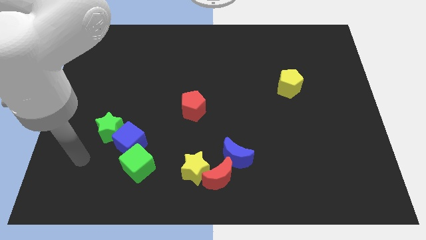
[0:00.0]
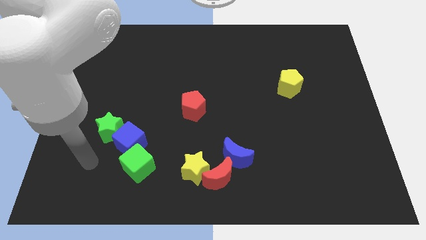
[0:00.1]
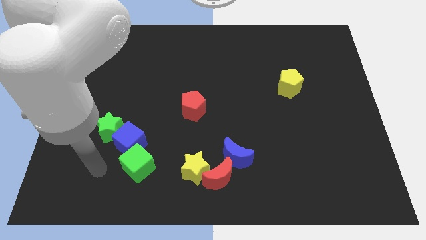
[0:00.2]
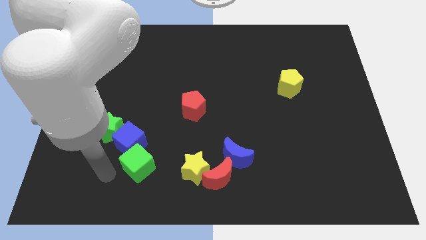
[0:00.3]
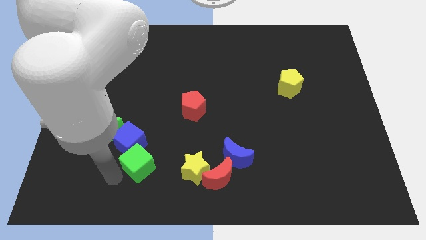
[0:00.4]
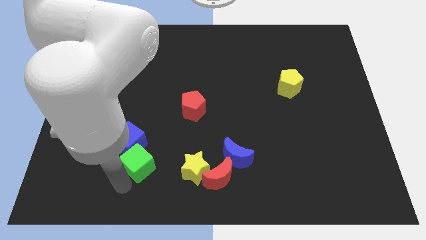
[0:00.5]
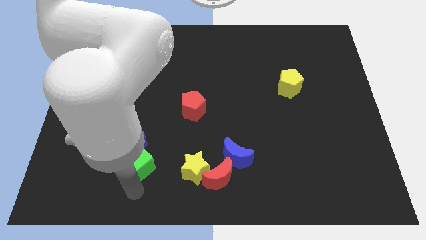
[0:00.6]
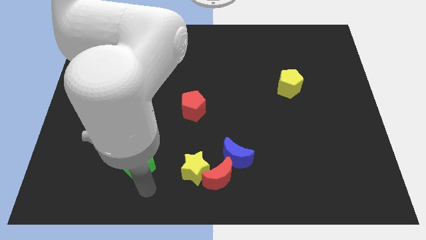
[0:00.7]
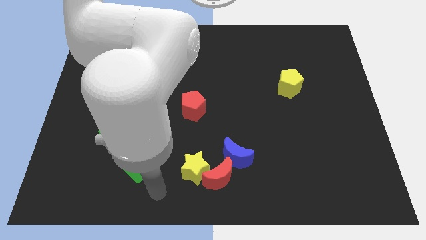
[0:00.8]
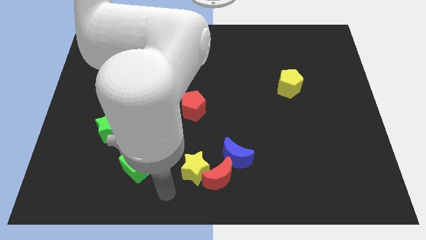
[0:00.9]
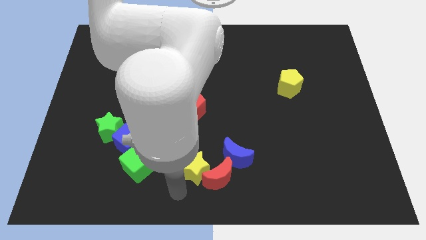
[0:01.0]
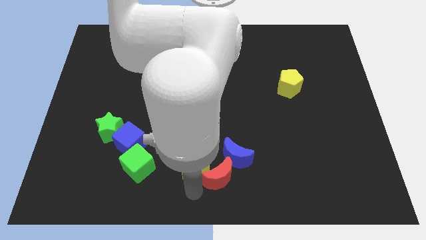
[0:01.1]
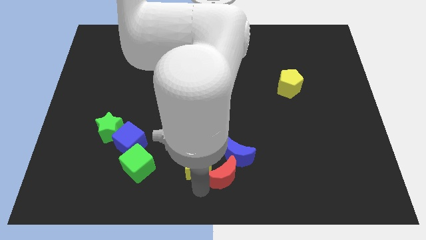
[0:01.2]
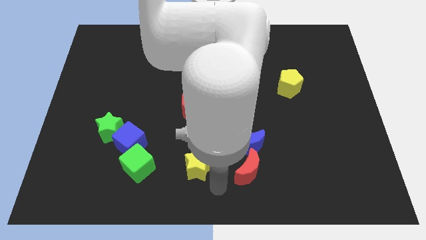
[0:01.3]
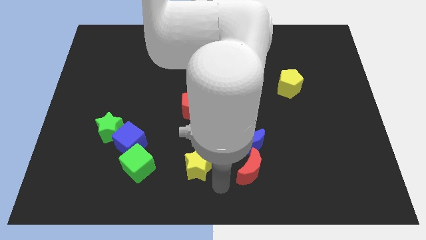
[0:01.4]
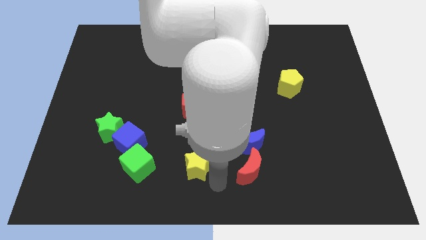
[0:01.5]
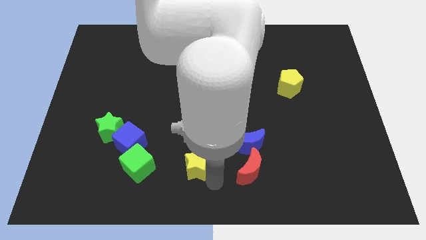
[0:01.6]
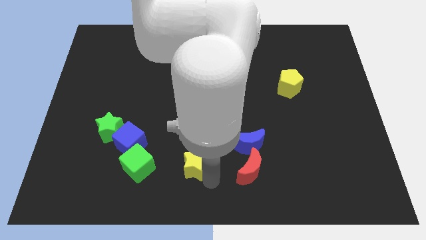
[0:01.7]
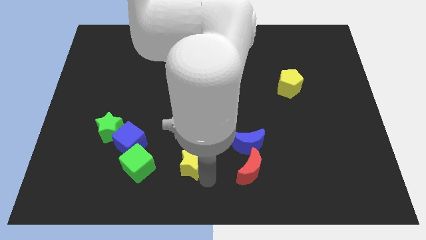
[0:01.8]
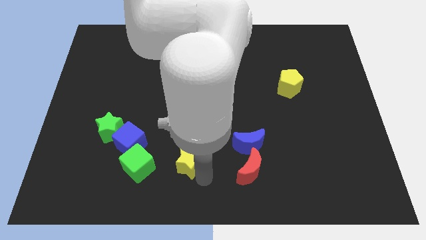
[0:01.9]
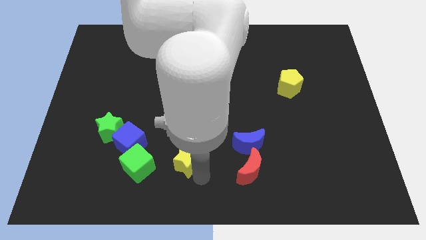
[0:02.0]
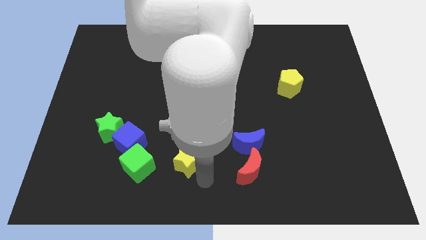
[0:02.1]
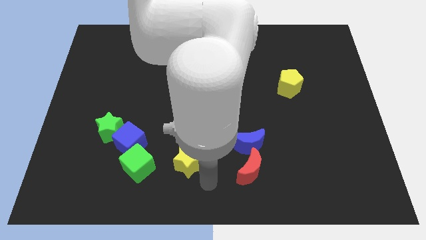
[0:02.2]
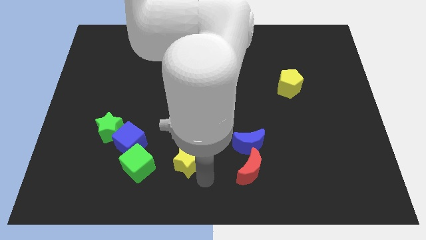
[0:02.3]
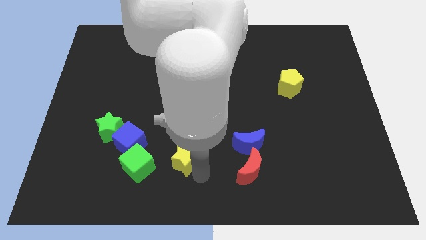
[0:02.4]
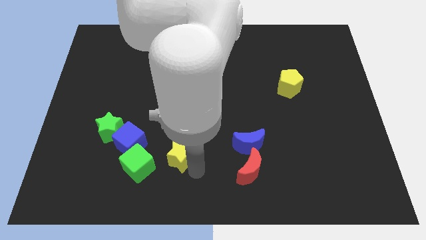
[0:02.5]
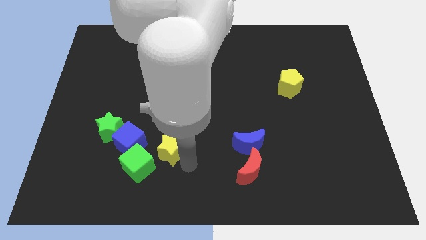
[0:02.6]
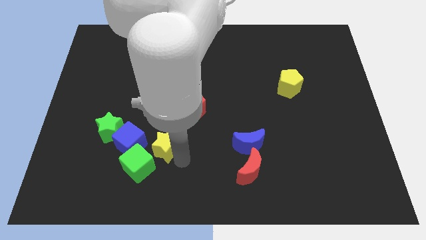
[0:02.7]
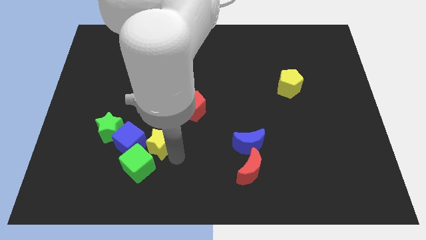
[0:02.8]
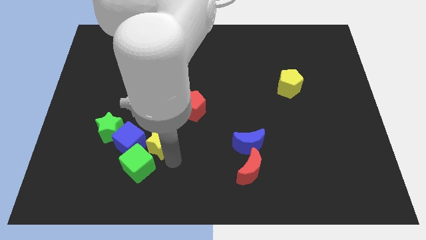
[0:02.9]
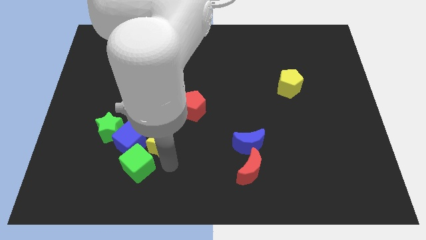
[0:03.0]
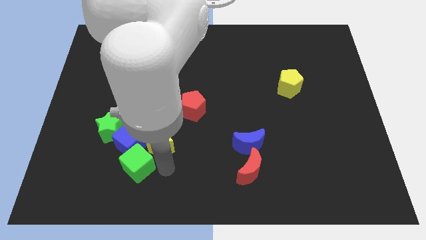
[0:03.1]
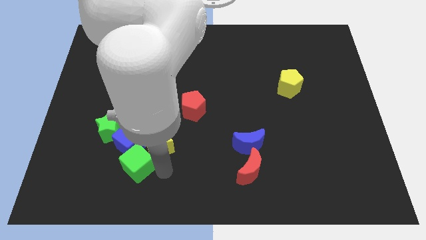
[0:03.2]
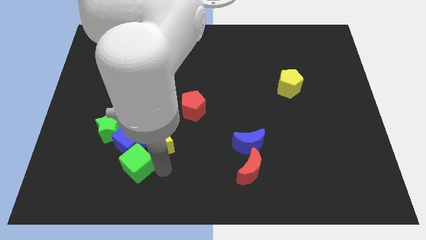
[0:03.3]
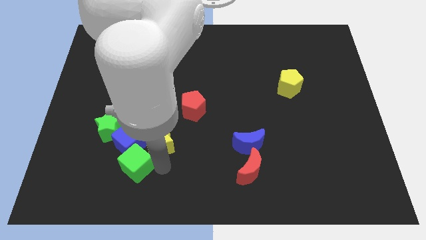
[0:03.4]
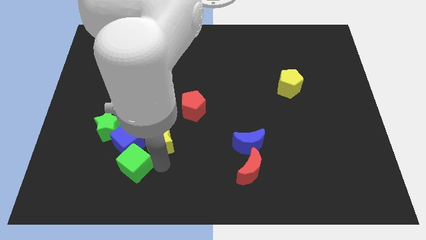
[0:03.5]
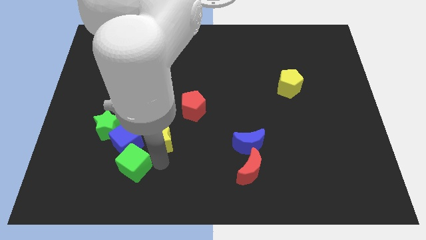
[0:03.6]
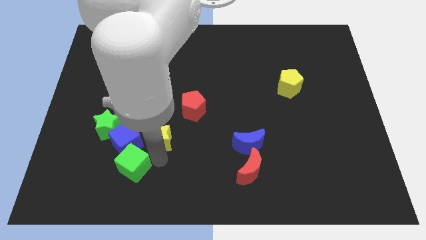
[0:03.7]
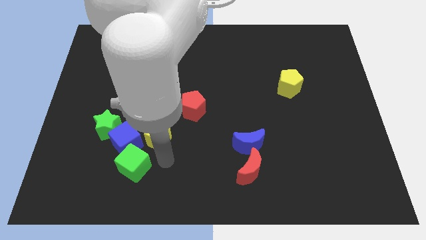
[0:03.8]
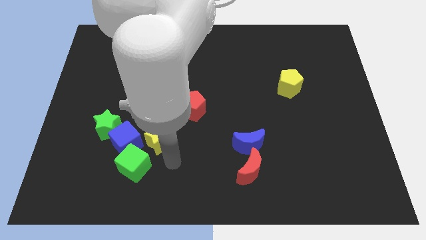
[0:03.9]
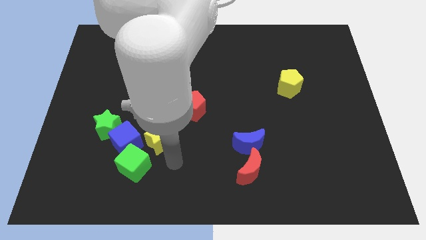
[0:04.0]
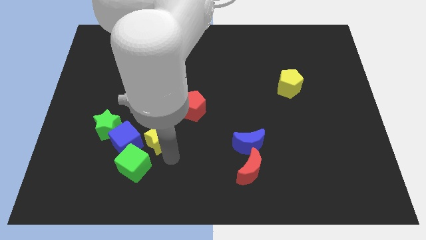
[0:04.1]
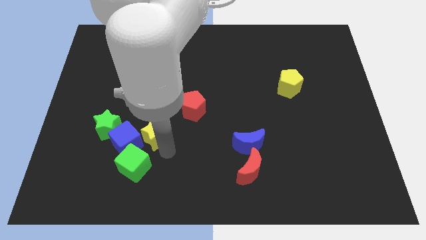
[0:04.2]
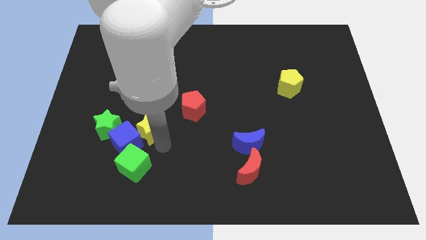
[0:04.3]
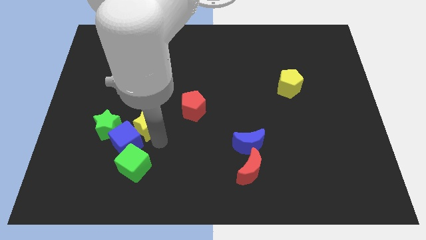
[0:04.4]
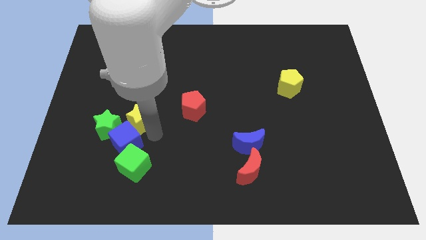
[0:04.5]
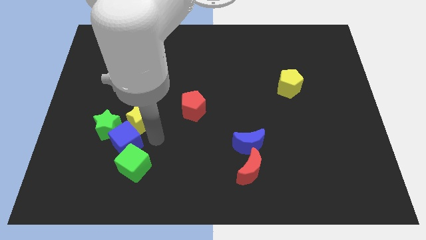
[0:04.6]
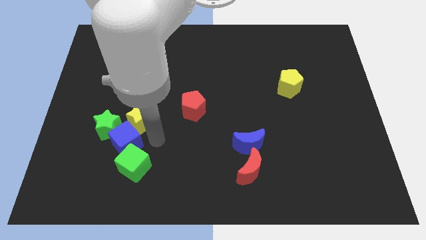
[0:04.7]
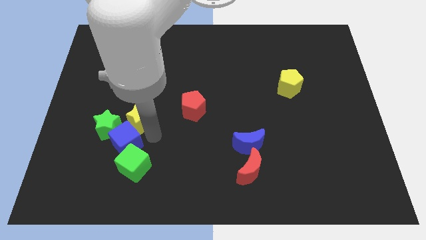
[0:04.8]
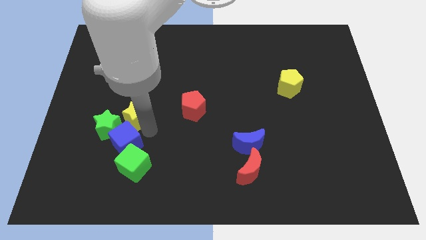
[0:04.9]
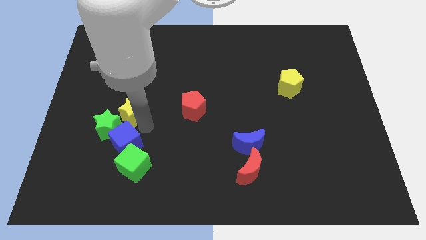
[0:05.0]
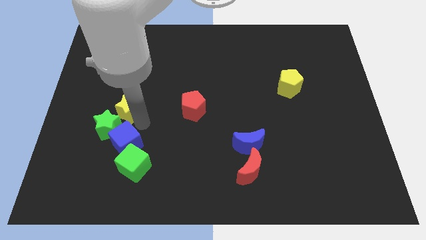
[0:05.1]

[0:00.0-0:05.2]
slide the yellow star to the top of the green star

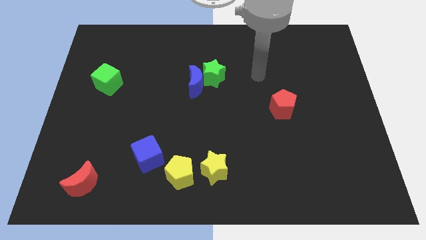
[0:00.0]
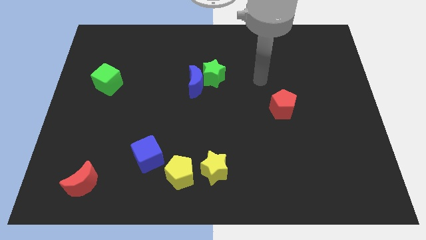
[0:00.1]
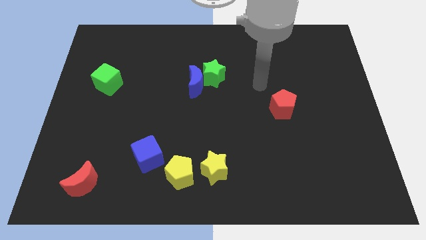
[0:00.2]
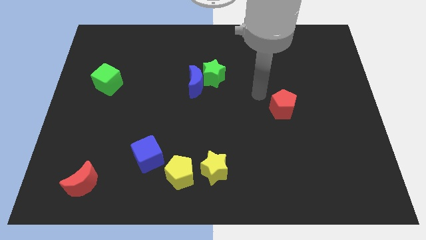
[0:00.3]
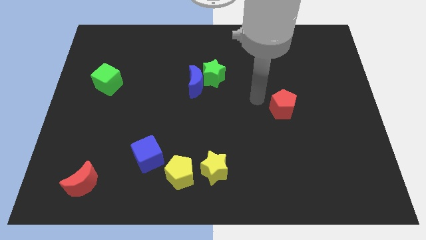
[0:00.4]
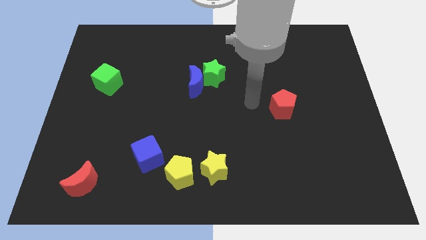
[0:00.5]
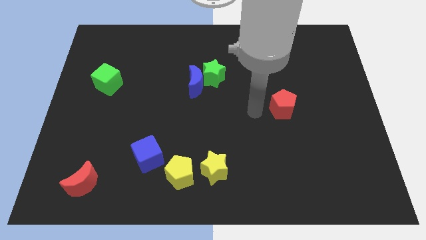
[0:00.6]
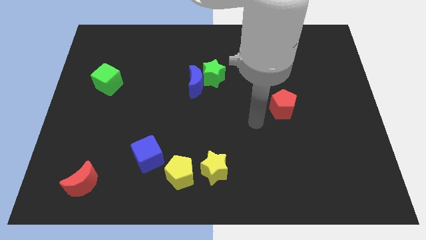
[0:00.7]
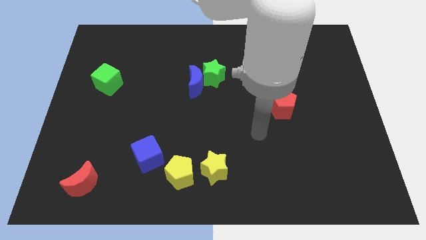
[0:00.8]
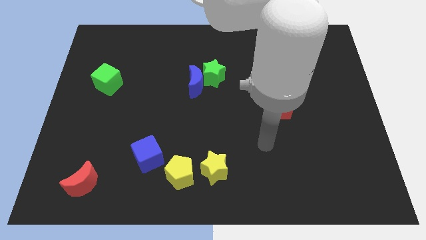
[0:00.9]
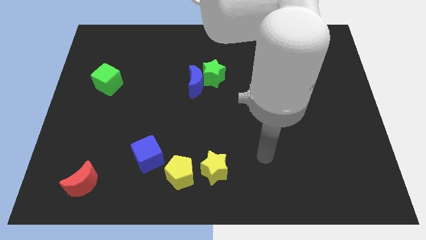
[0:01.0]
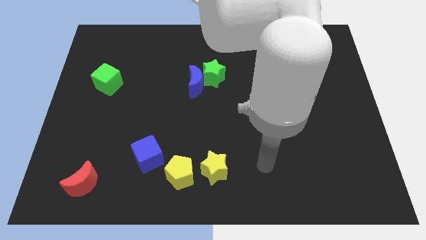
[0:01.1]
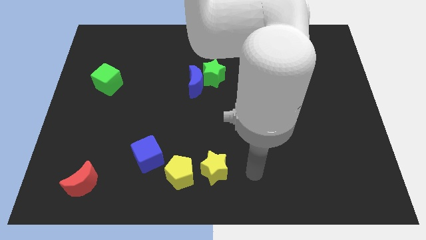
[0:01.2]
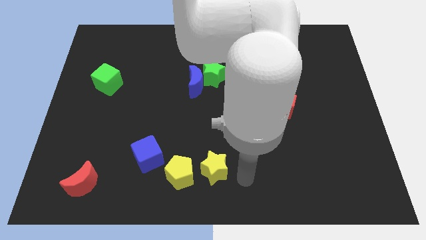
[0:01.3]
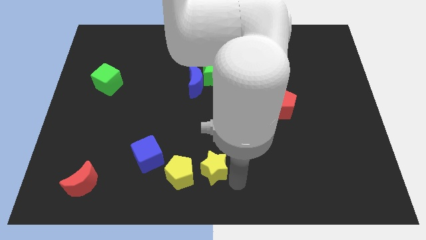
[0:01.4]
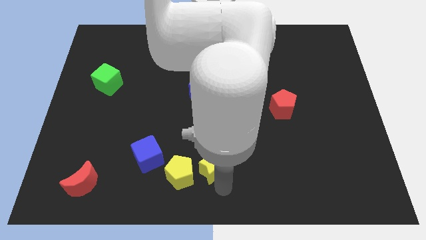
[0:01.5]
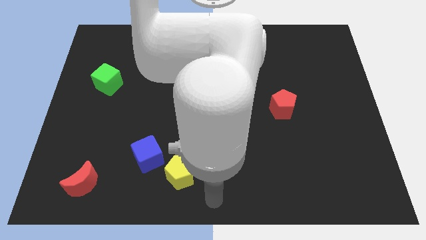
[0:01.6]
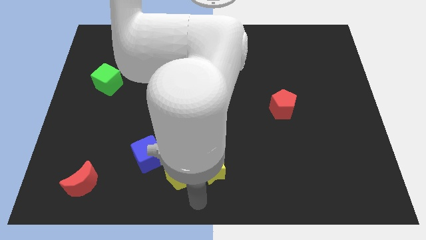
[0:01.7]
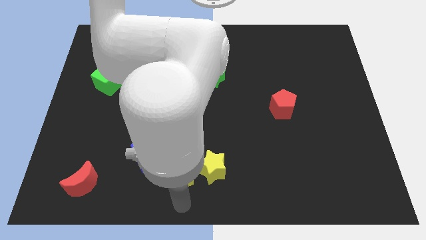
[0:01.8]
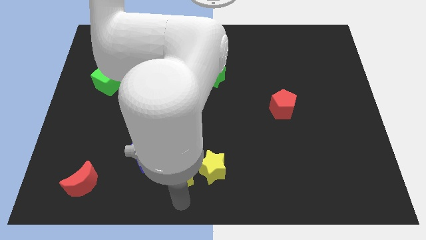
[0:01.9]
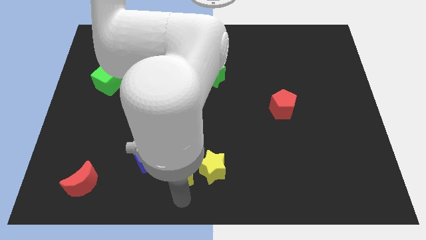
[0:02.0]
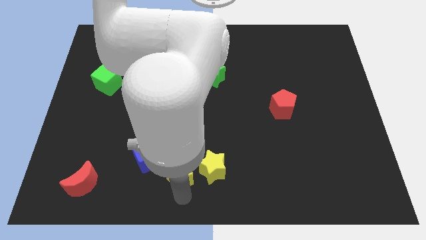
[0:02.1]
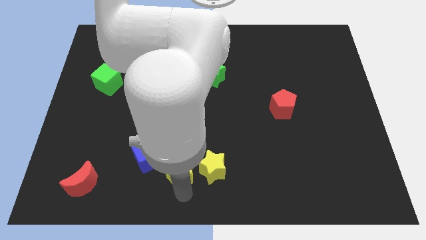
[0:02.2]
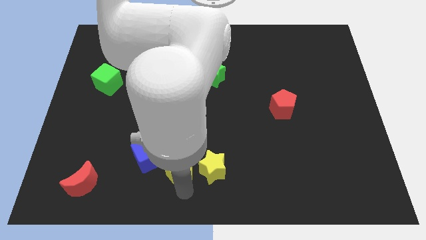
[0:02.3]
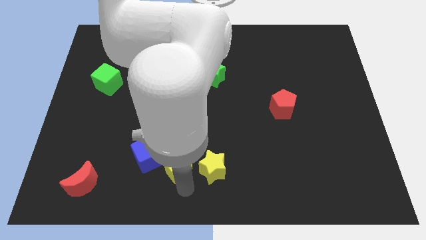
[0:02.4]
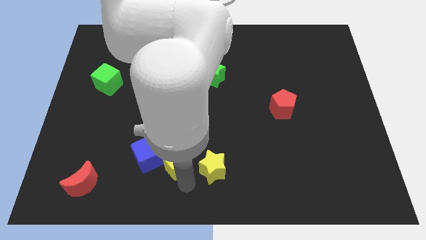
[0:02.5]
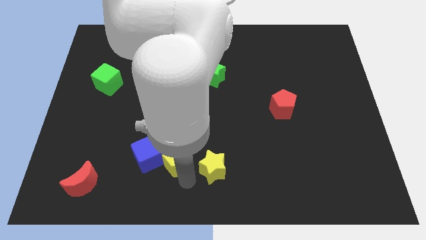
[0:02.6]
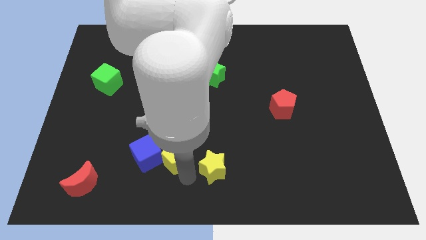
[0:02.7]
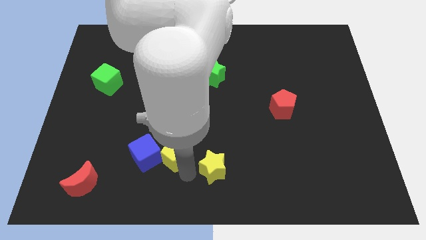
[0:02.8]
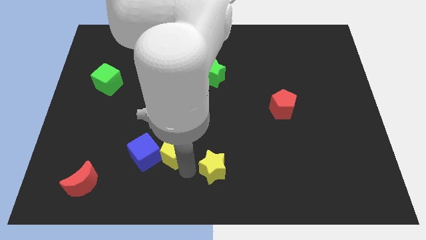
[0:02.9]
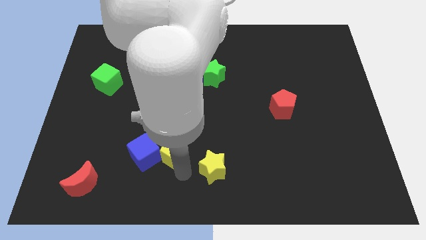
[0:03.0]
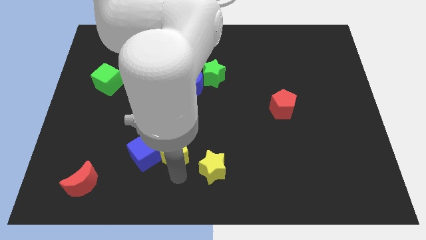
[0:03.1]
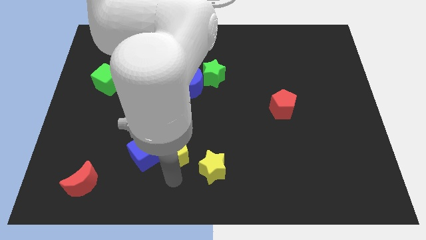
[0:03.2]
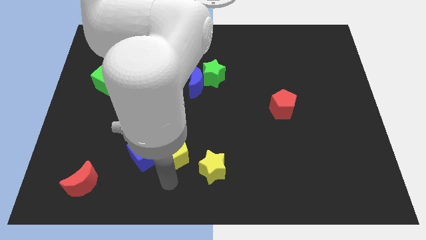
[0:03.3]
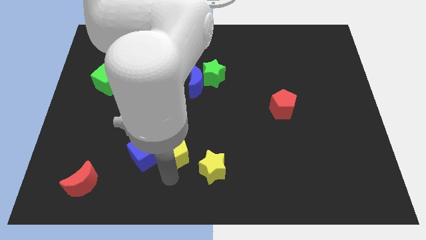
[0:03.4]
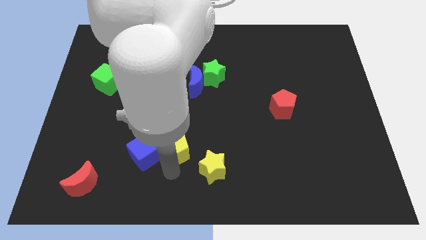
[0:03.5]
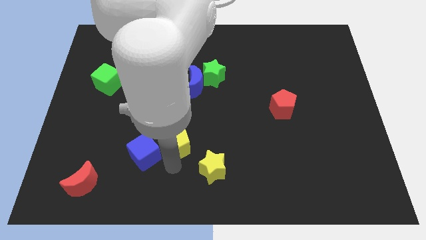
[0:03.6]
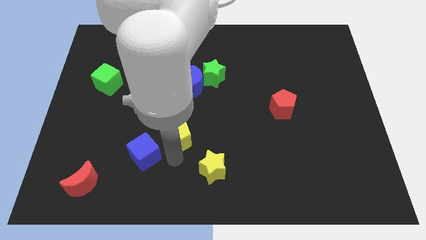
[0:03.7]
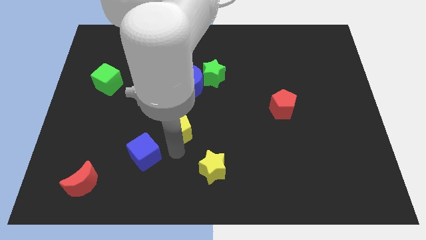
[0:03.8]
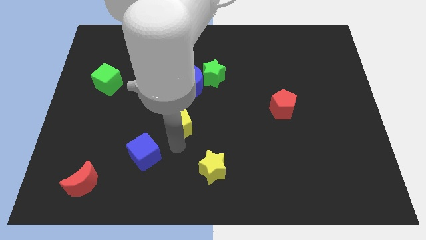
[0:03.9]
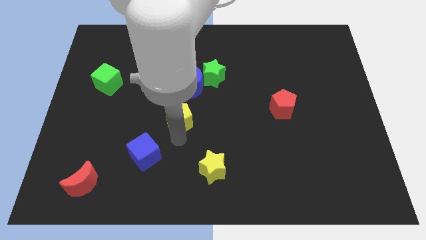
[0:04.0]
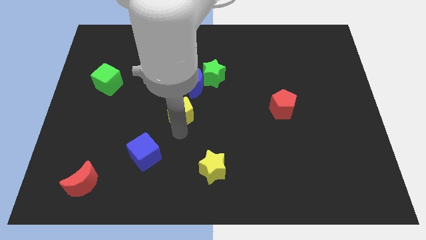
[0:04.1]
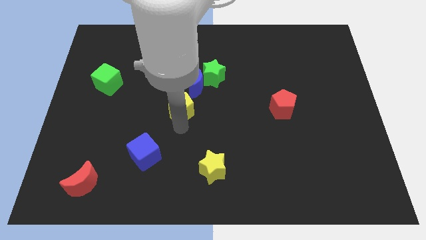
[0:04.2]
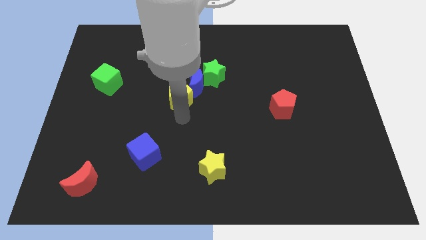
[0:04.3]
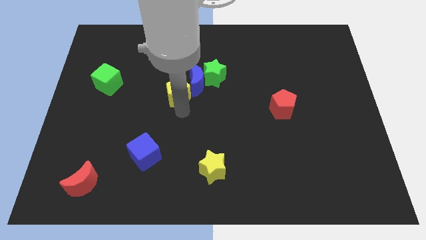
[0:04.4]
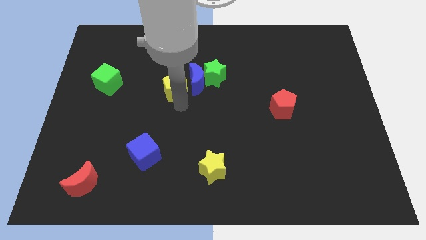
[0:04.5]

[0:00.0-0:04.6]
slide the yellow pentagon left of the green star
